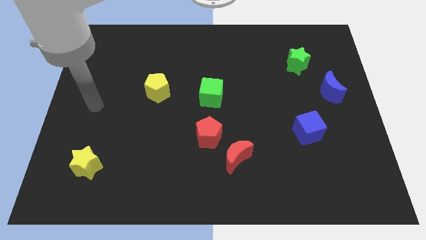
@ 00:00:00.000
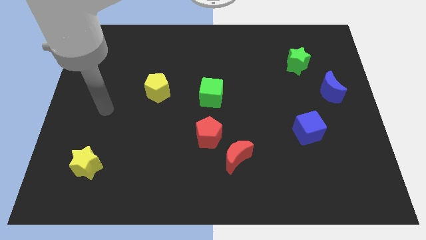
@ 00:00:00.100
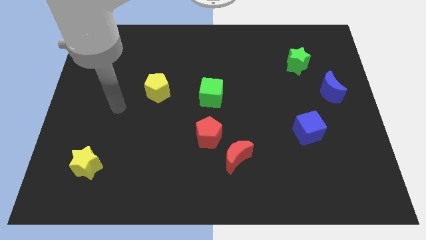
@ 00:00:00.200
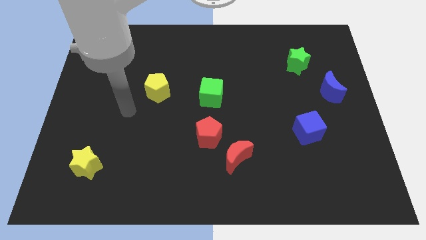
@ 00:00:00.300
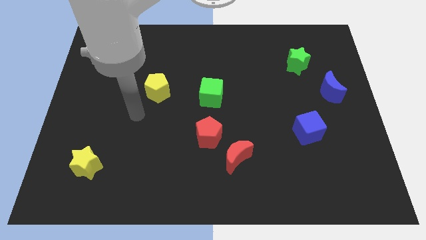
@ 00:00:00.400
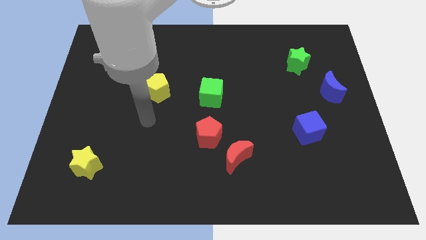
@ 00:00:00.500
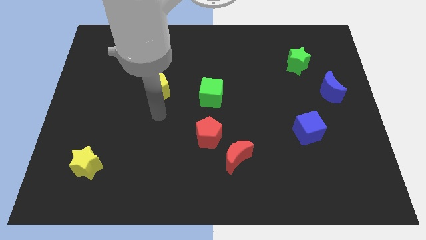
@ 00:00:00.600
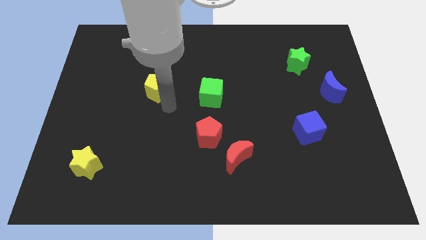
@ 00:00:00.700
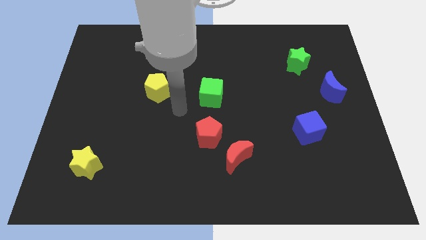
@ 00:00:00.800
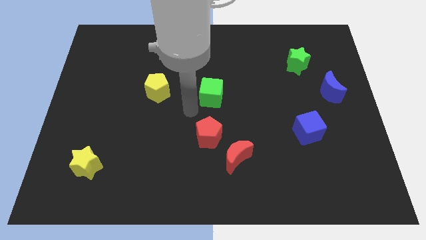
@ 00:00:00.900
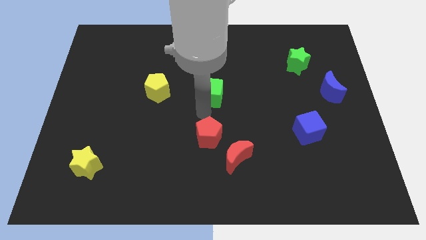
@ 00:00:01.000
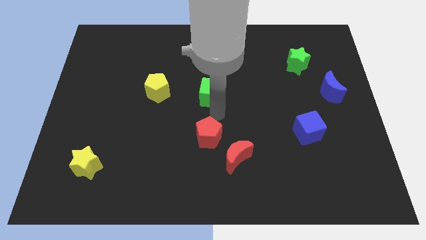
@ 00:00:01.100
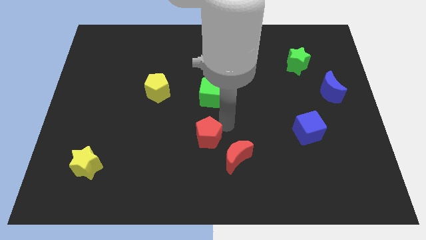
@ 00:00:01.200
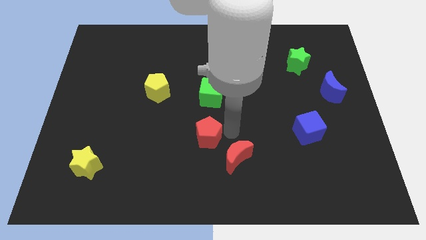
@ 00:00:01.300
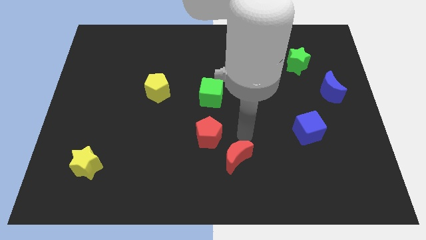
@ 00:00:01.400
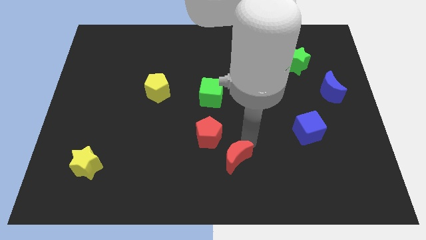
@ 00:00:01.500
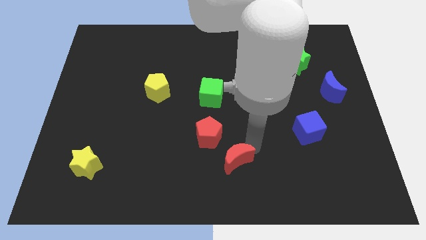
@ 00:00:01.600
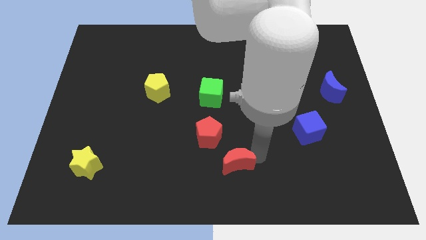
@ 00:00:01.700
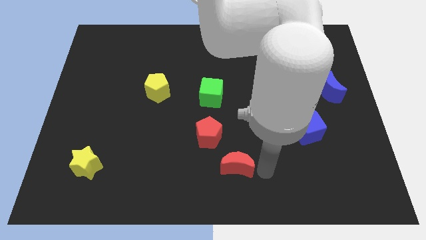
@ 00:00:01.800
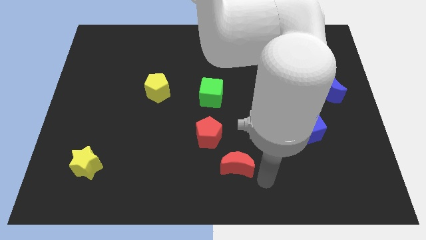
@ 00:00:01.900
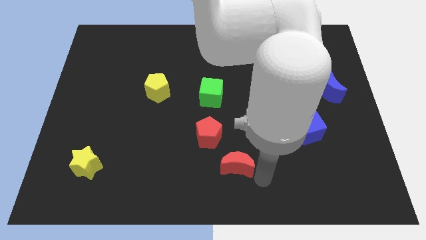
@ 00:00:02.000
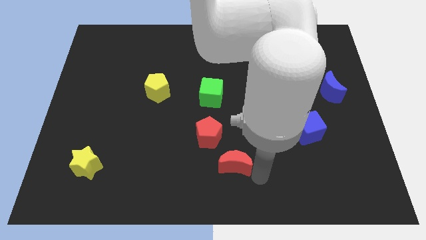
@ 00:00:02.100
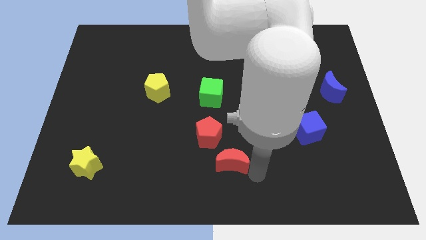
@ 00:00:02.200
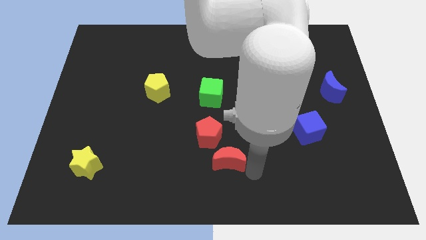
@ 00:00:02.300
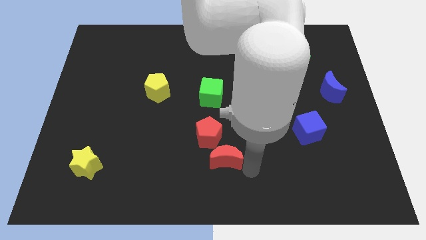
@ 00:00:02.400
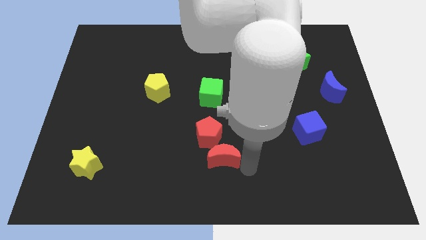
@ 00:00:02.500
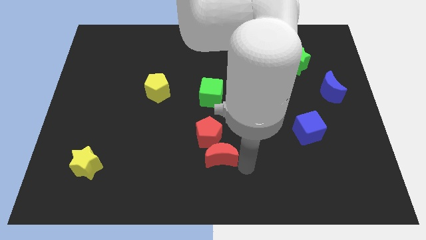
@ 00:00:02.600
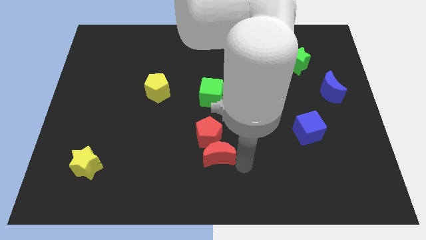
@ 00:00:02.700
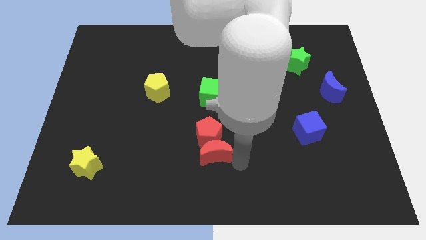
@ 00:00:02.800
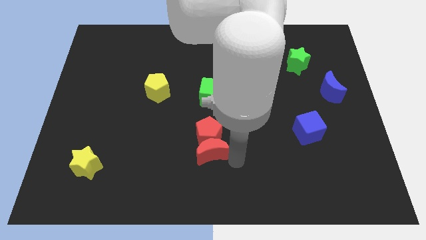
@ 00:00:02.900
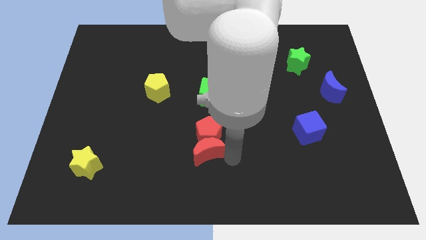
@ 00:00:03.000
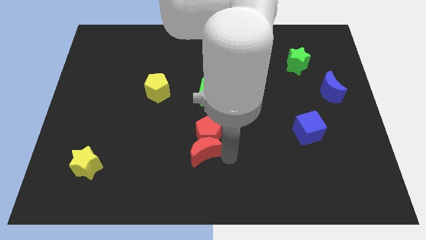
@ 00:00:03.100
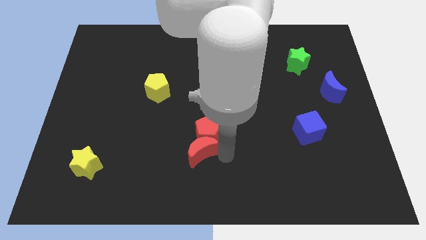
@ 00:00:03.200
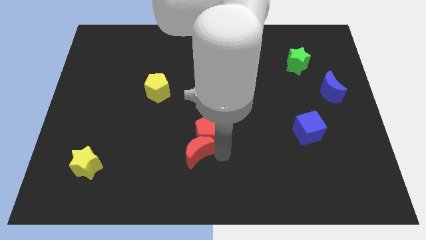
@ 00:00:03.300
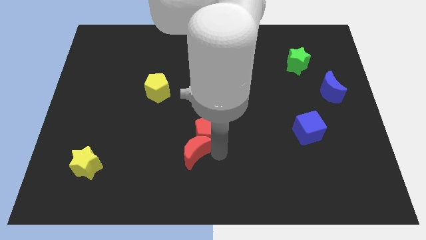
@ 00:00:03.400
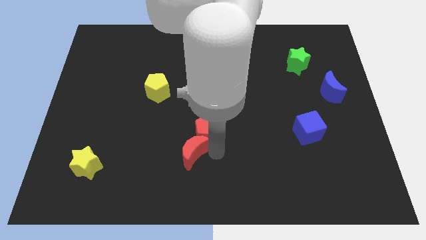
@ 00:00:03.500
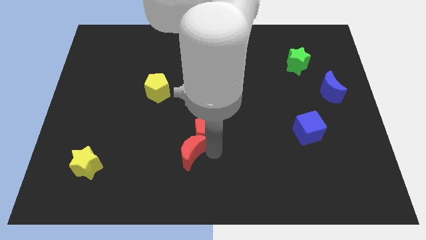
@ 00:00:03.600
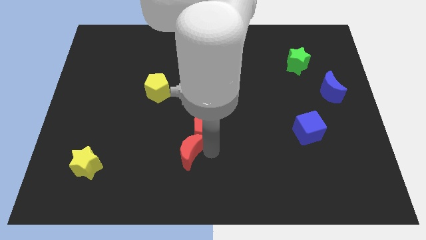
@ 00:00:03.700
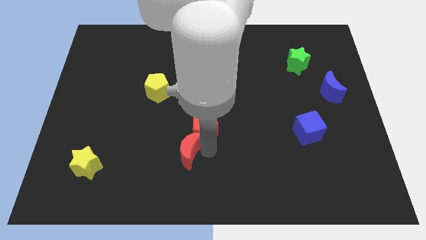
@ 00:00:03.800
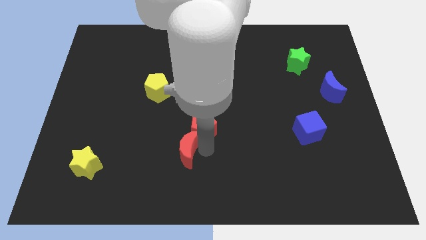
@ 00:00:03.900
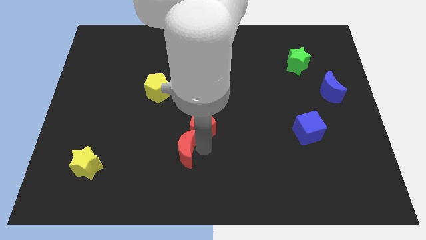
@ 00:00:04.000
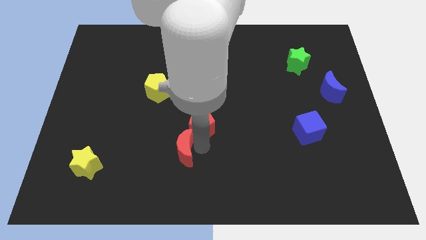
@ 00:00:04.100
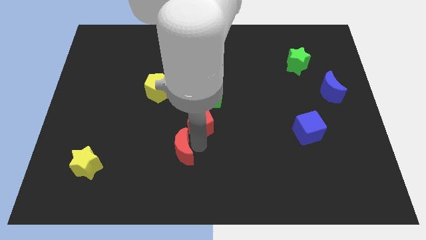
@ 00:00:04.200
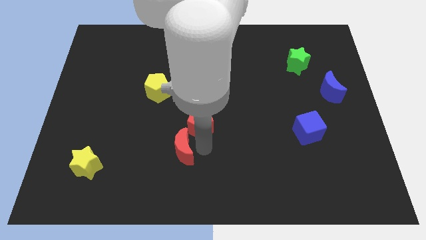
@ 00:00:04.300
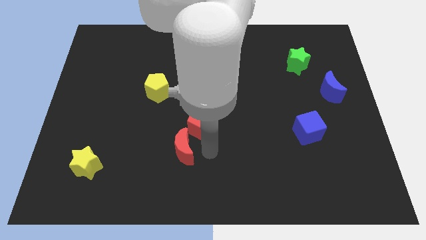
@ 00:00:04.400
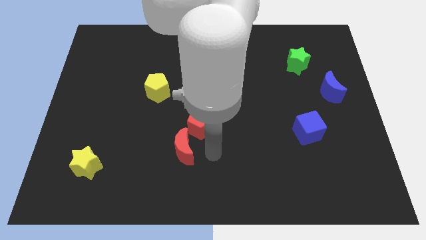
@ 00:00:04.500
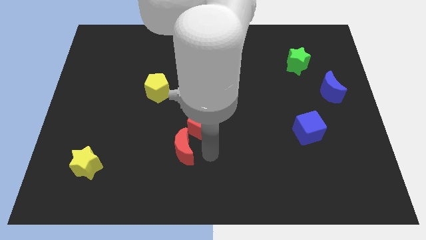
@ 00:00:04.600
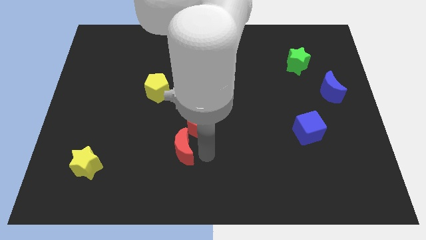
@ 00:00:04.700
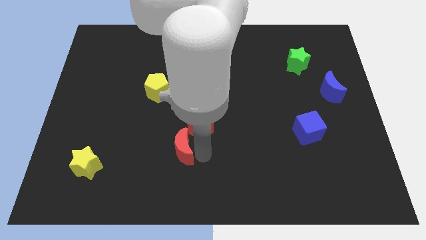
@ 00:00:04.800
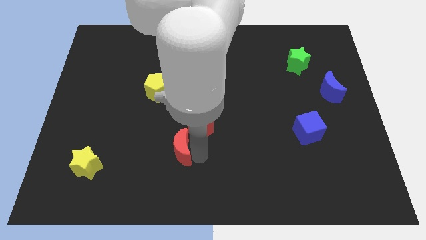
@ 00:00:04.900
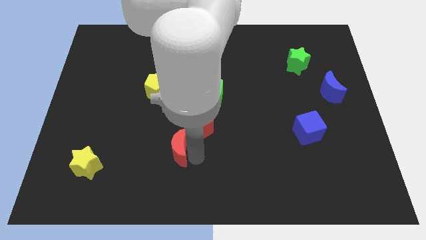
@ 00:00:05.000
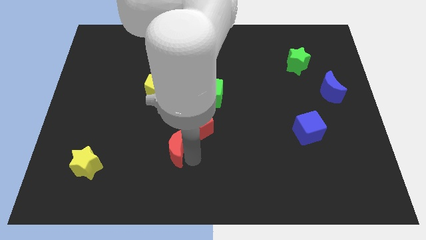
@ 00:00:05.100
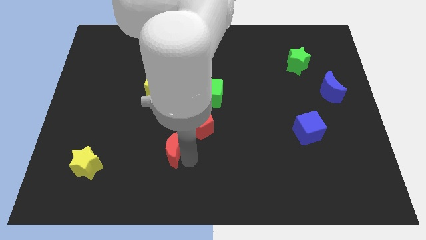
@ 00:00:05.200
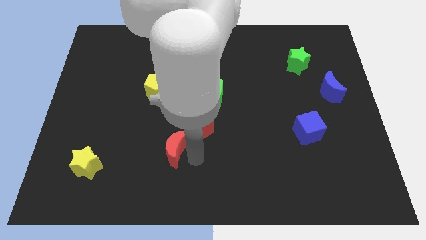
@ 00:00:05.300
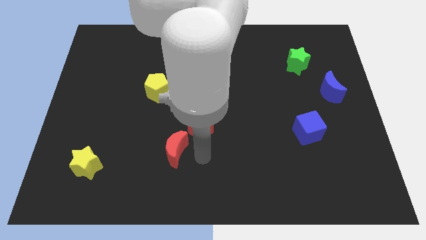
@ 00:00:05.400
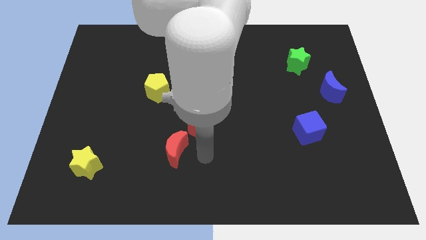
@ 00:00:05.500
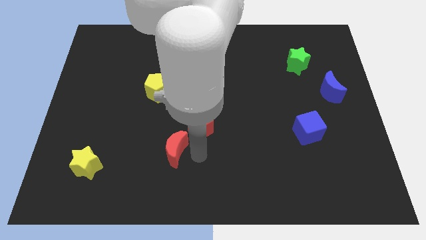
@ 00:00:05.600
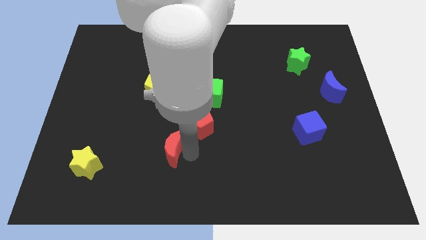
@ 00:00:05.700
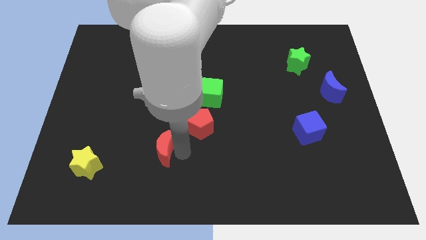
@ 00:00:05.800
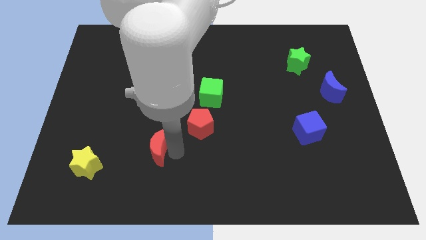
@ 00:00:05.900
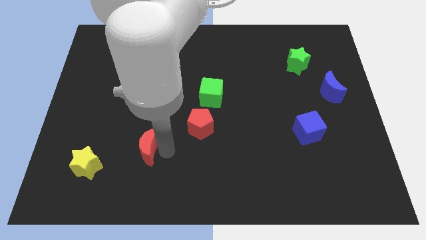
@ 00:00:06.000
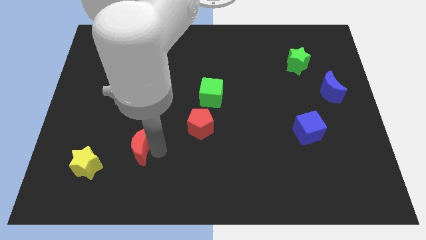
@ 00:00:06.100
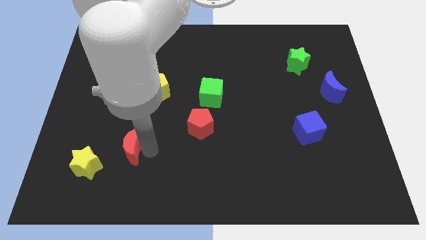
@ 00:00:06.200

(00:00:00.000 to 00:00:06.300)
push the red moon to the top right of the yellow star
